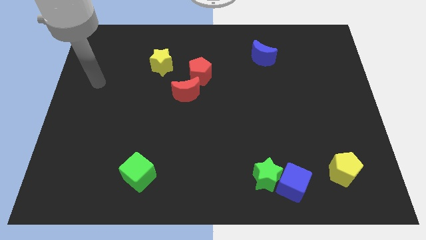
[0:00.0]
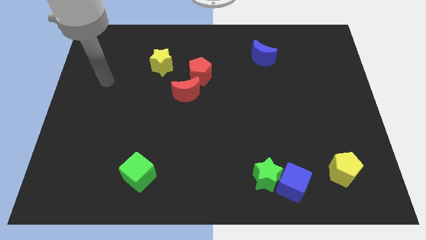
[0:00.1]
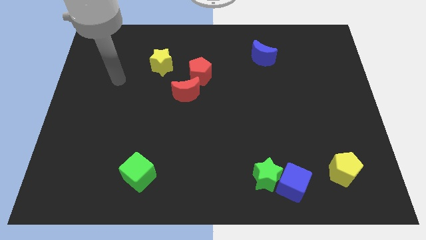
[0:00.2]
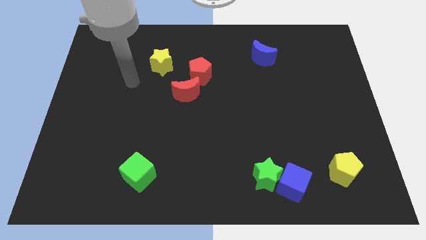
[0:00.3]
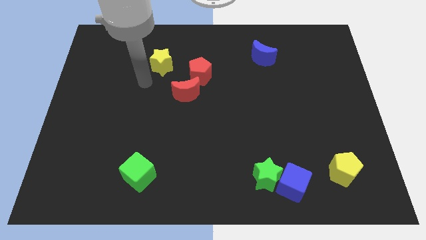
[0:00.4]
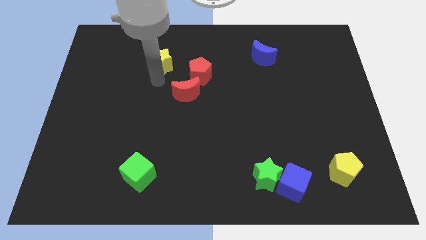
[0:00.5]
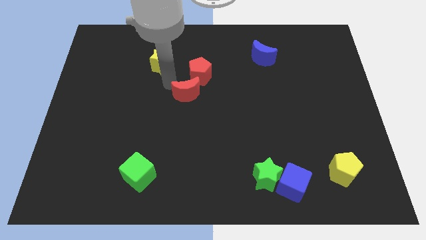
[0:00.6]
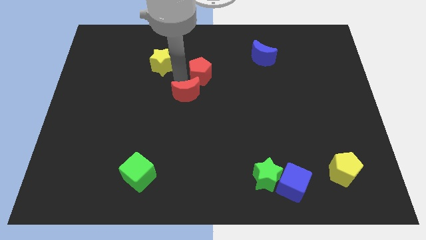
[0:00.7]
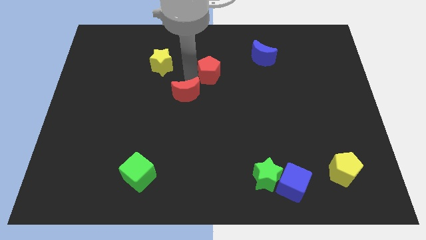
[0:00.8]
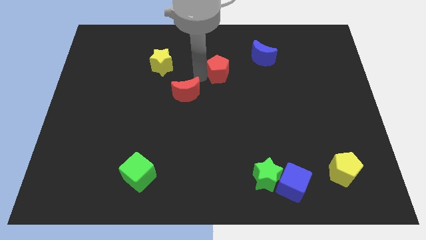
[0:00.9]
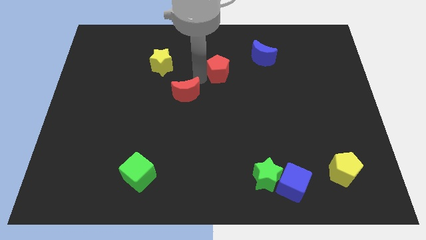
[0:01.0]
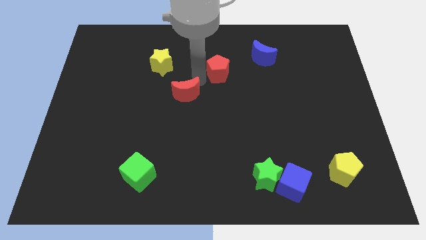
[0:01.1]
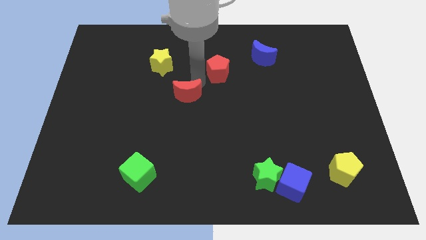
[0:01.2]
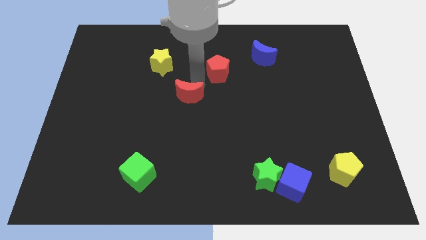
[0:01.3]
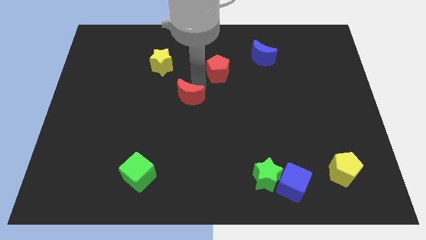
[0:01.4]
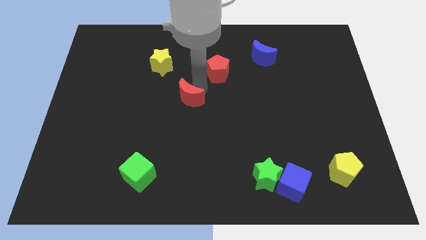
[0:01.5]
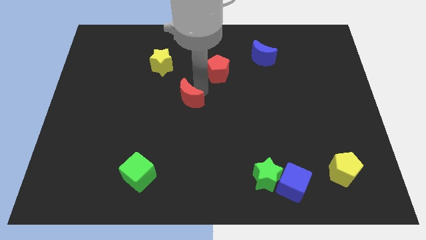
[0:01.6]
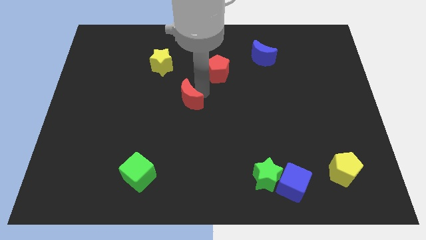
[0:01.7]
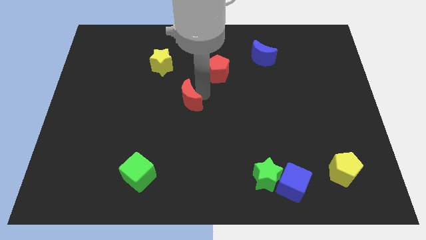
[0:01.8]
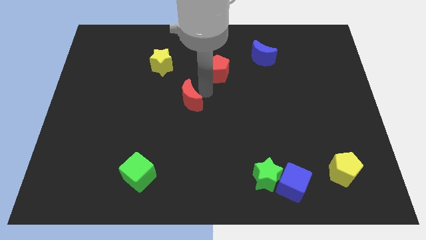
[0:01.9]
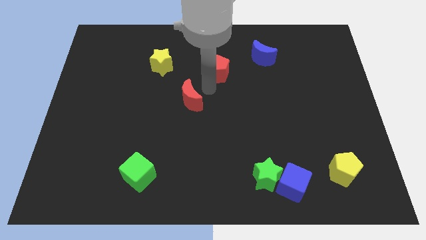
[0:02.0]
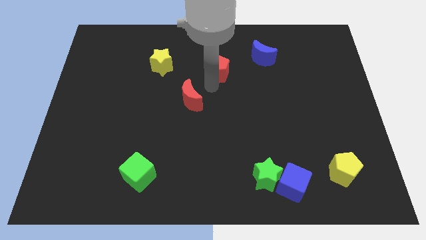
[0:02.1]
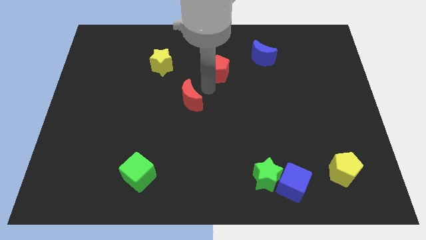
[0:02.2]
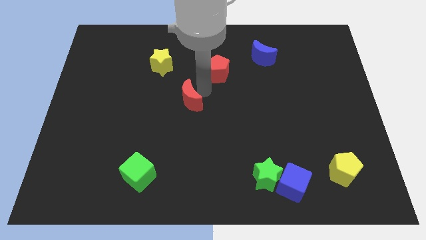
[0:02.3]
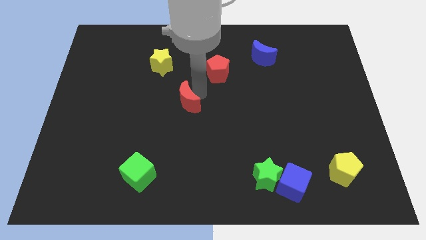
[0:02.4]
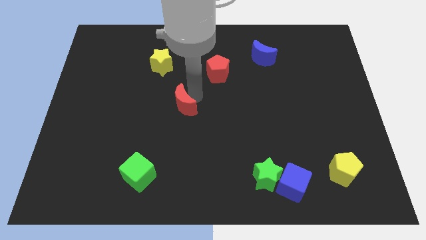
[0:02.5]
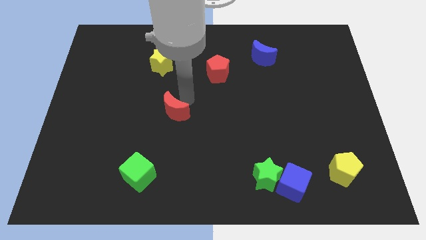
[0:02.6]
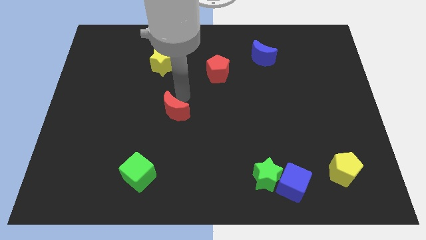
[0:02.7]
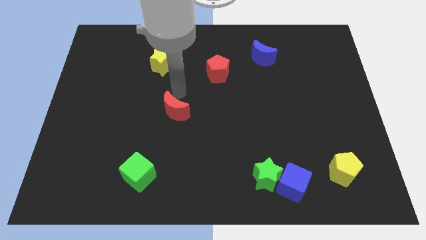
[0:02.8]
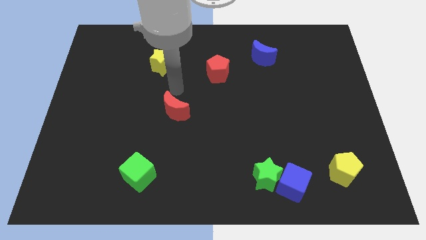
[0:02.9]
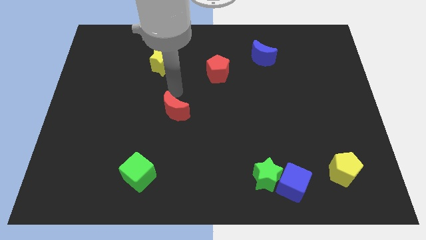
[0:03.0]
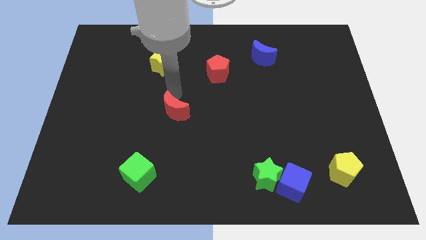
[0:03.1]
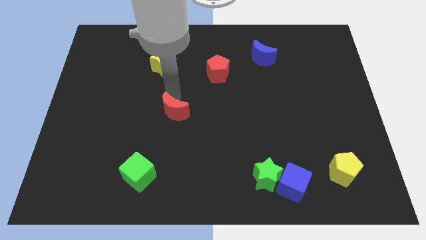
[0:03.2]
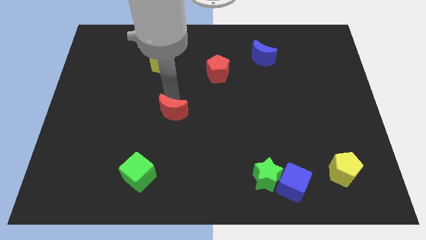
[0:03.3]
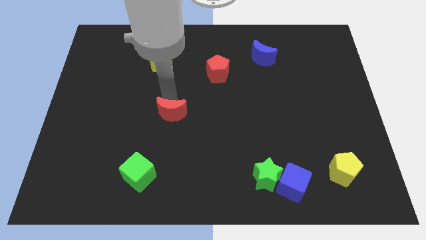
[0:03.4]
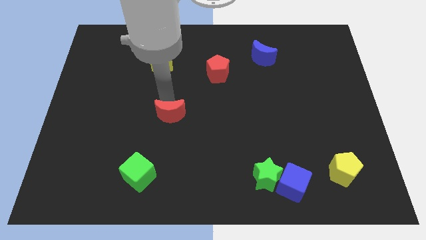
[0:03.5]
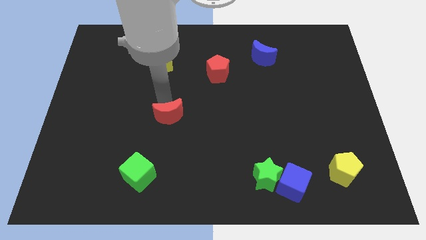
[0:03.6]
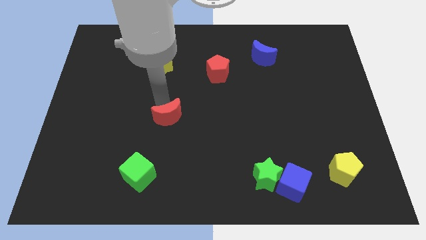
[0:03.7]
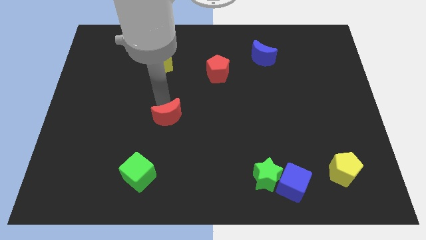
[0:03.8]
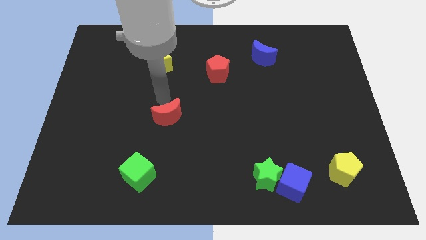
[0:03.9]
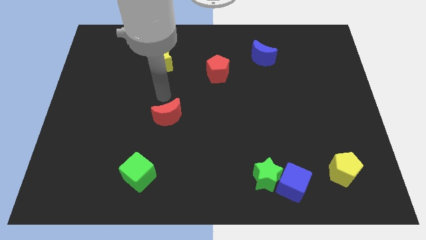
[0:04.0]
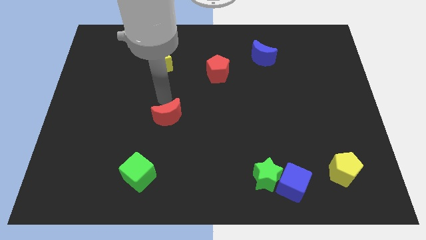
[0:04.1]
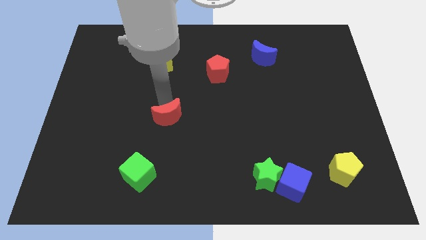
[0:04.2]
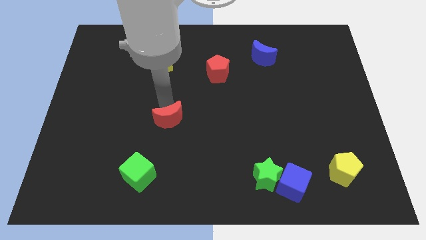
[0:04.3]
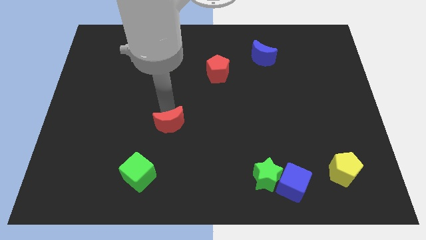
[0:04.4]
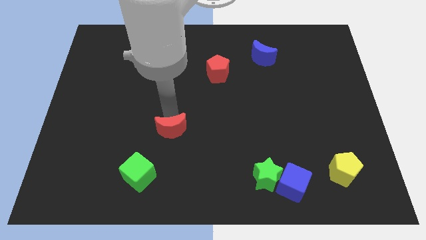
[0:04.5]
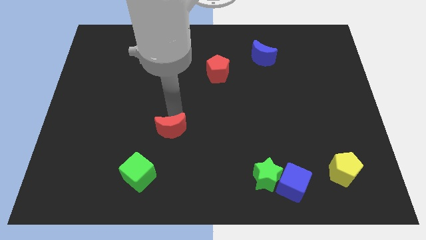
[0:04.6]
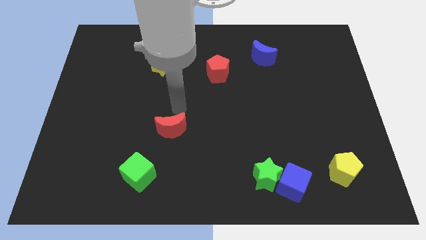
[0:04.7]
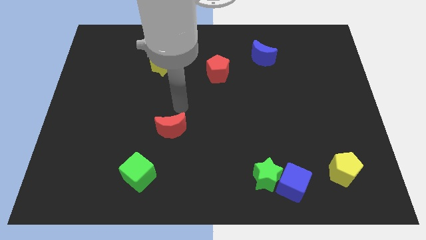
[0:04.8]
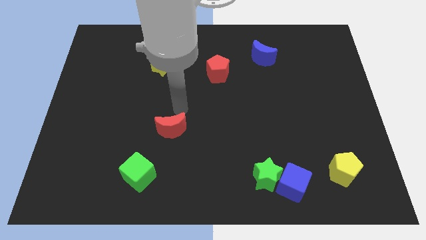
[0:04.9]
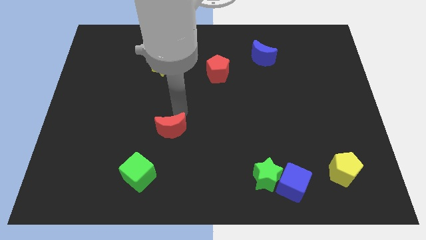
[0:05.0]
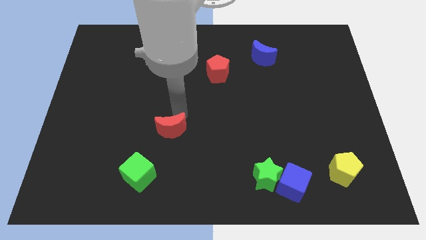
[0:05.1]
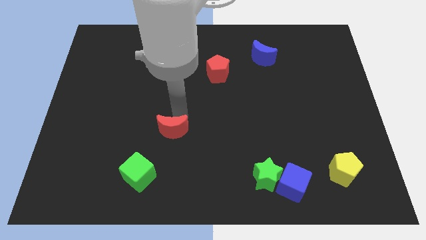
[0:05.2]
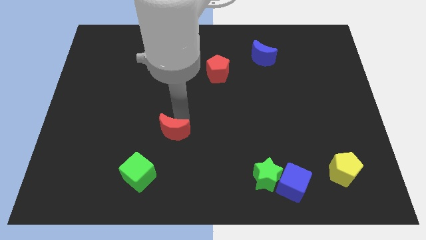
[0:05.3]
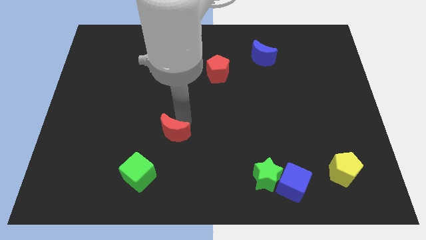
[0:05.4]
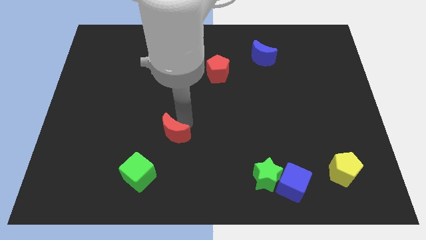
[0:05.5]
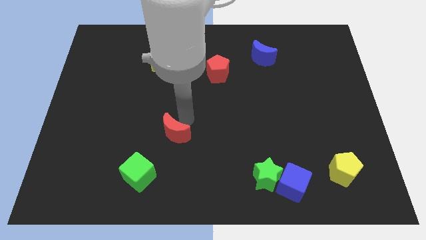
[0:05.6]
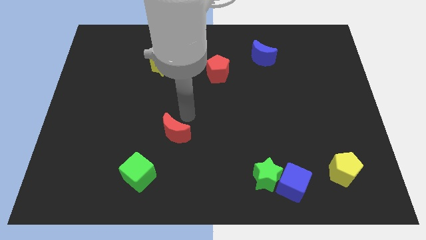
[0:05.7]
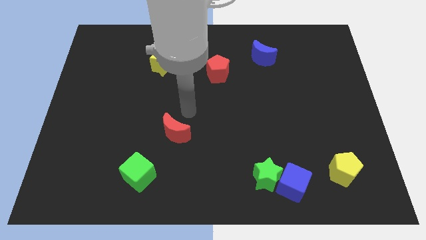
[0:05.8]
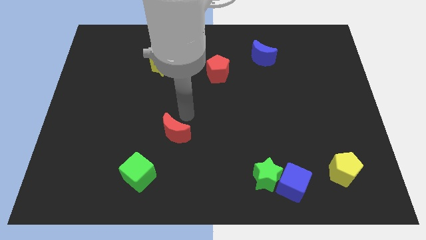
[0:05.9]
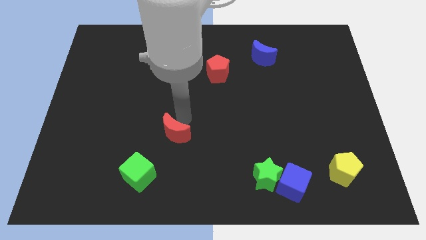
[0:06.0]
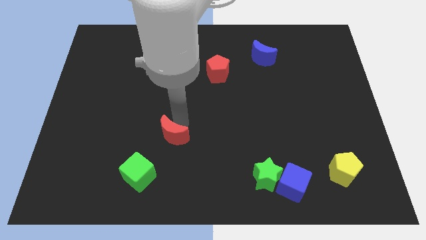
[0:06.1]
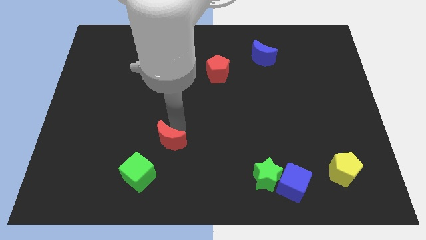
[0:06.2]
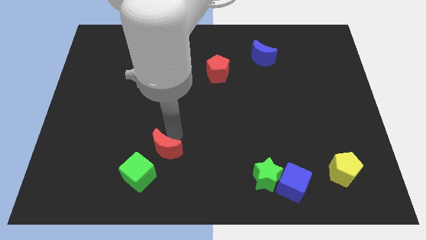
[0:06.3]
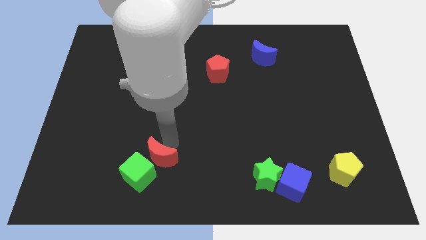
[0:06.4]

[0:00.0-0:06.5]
move the red moon next to the green cube
